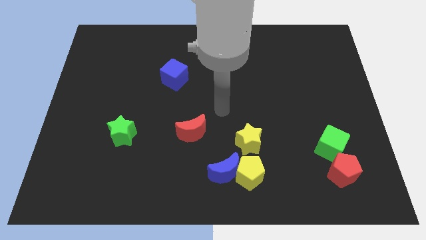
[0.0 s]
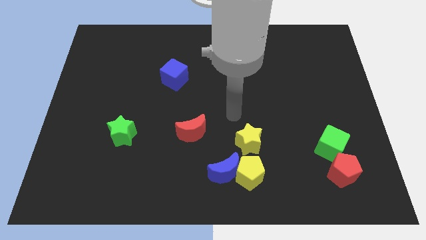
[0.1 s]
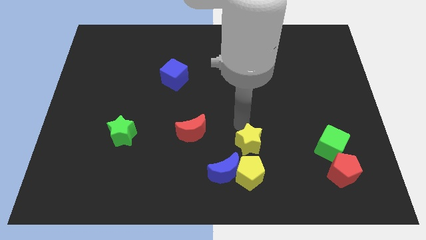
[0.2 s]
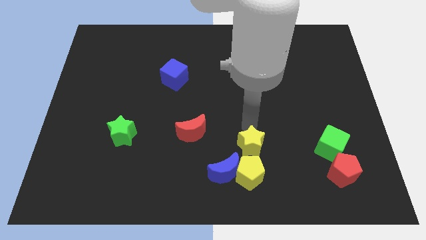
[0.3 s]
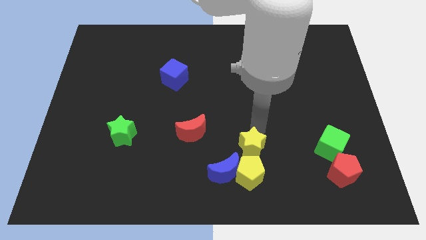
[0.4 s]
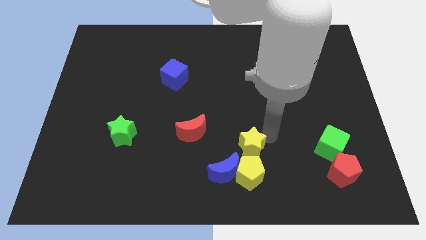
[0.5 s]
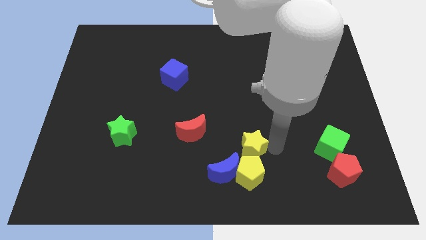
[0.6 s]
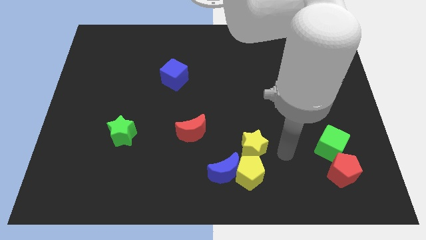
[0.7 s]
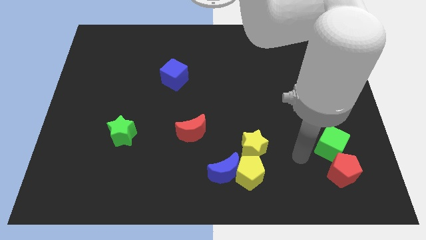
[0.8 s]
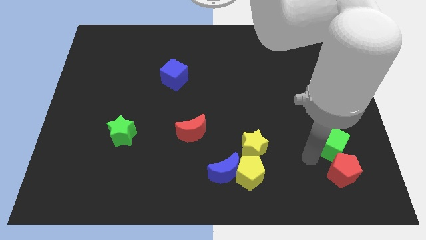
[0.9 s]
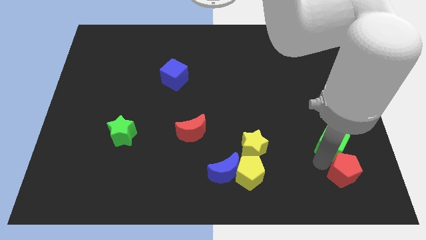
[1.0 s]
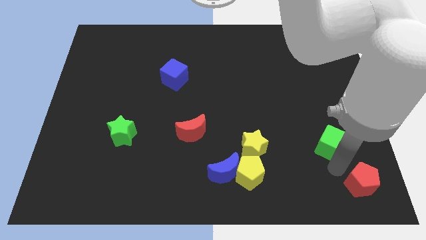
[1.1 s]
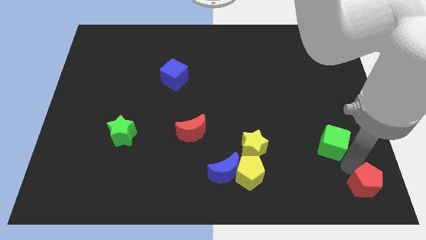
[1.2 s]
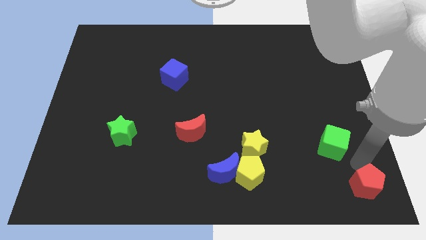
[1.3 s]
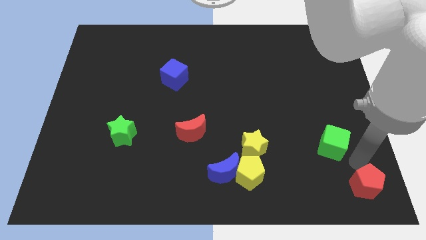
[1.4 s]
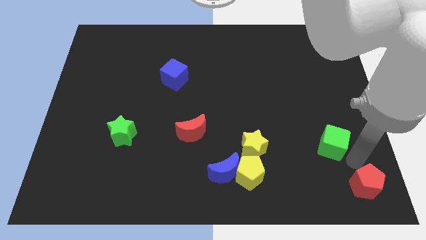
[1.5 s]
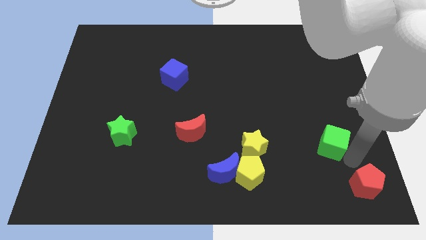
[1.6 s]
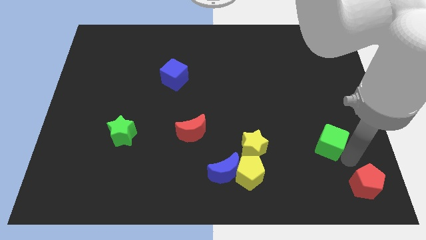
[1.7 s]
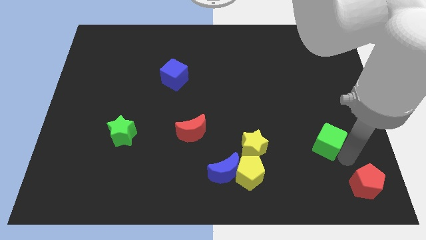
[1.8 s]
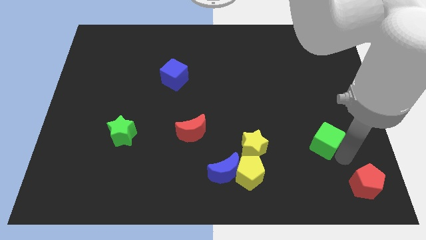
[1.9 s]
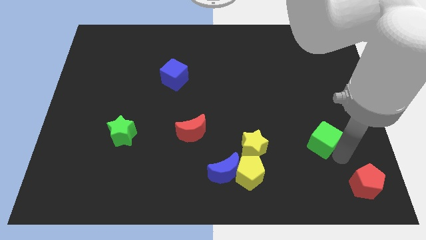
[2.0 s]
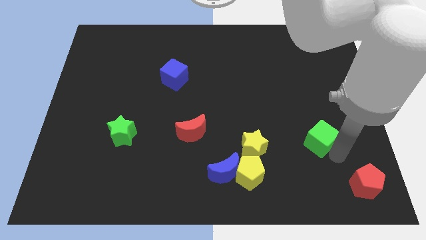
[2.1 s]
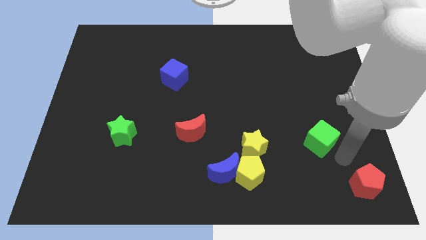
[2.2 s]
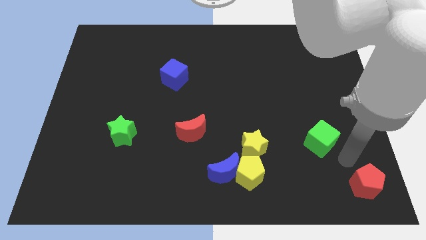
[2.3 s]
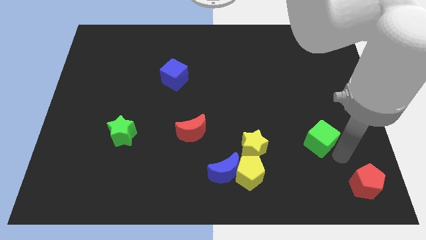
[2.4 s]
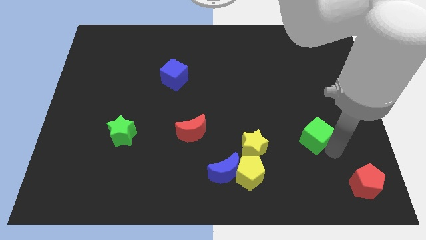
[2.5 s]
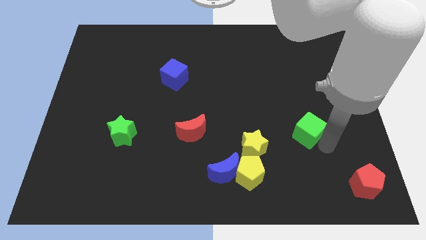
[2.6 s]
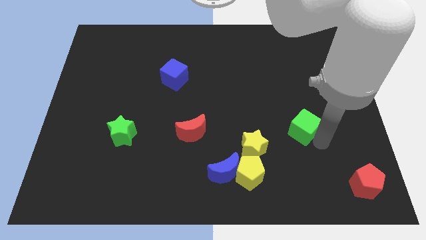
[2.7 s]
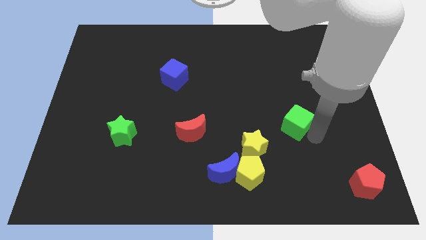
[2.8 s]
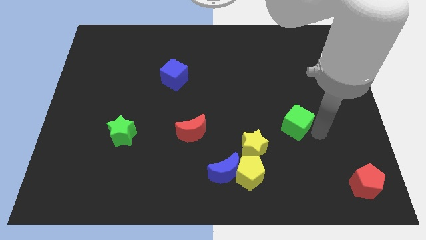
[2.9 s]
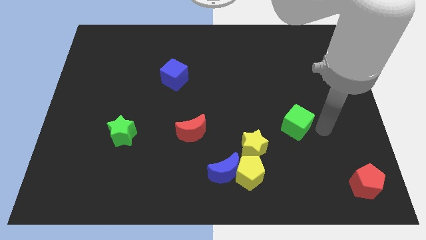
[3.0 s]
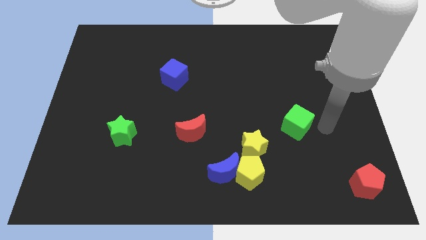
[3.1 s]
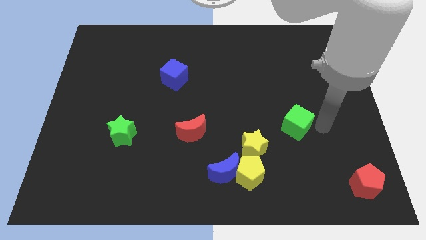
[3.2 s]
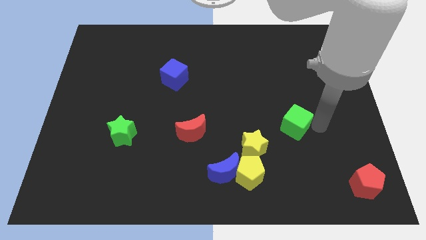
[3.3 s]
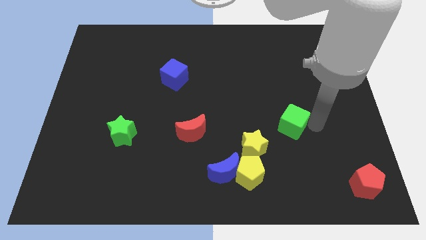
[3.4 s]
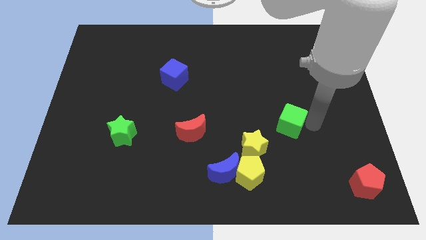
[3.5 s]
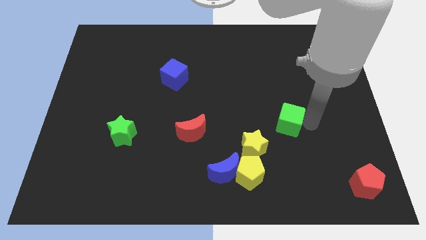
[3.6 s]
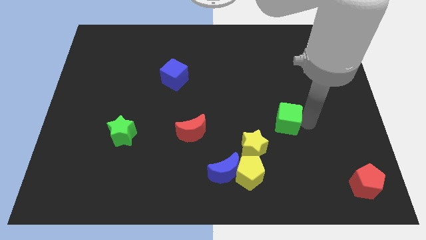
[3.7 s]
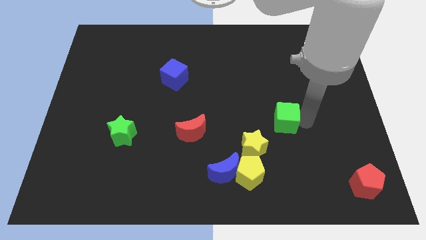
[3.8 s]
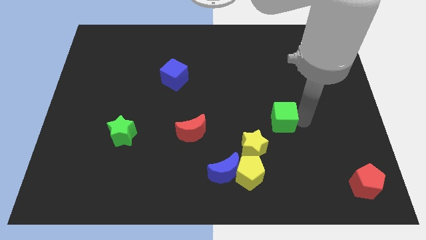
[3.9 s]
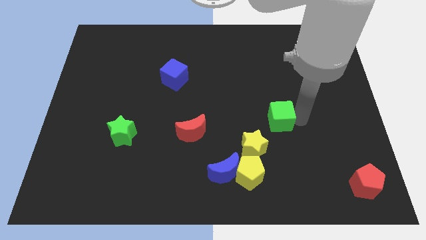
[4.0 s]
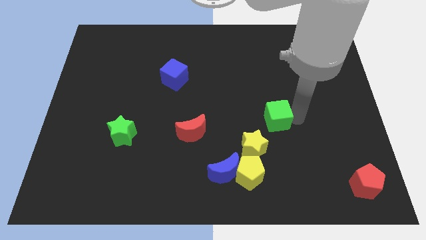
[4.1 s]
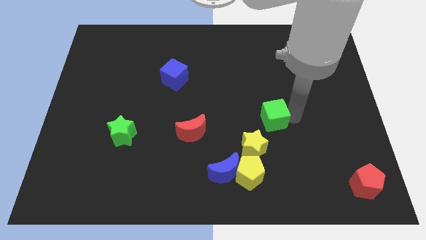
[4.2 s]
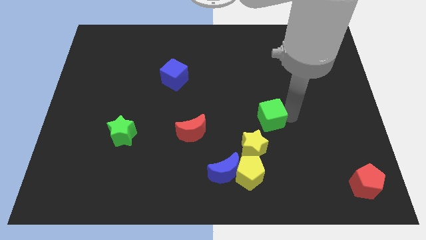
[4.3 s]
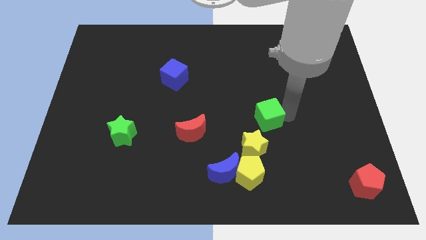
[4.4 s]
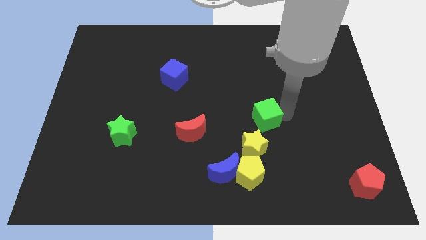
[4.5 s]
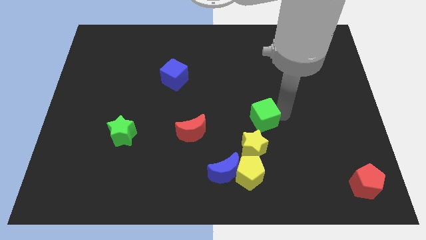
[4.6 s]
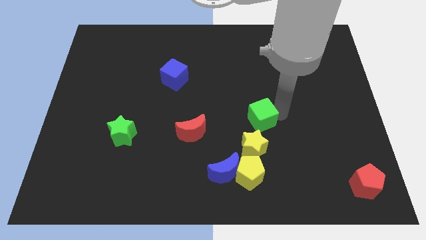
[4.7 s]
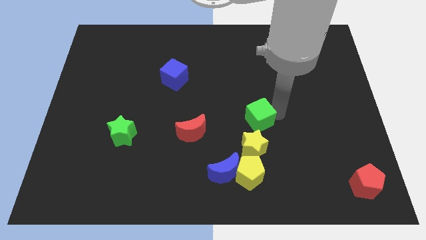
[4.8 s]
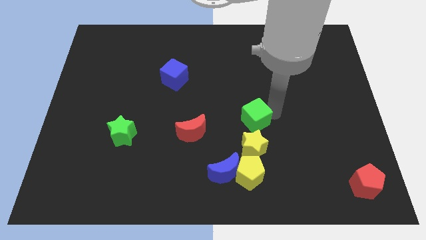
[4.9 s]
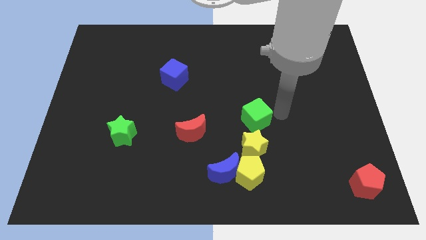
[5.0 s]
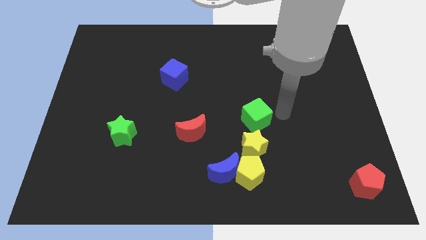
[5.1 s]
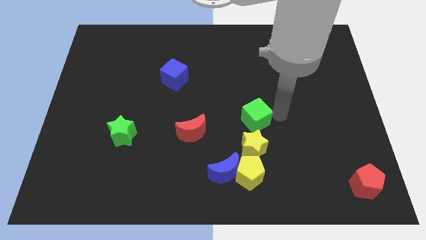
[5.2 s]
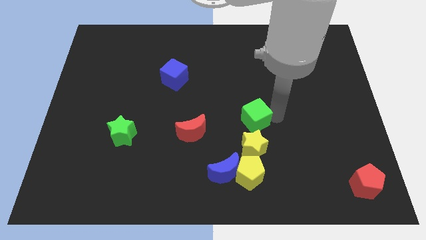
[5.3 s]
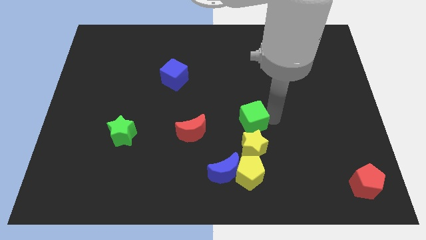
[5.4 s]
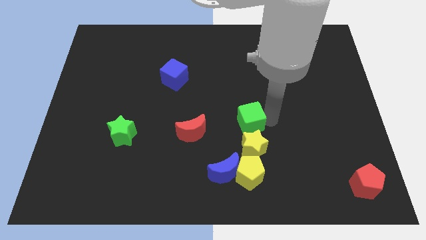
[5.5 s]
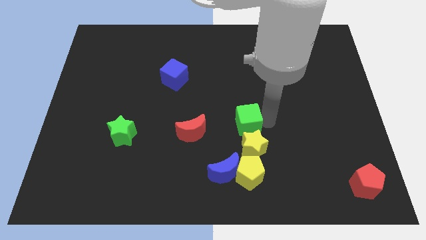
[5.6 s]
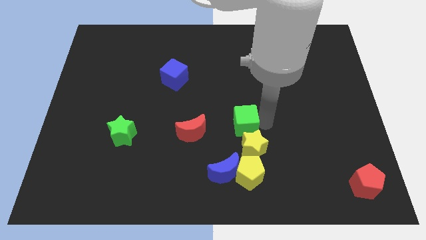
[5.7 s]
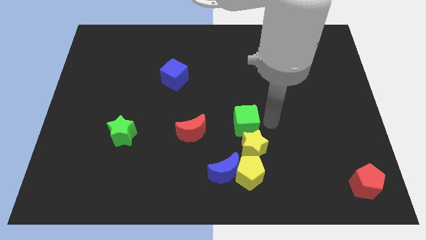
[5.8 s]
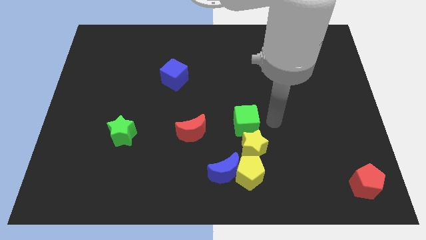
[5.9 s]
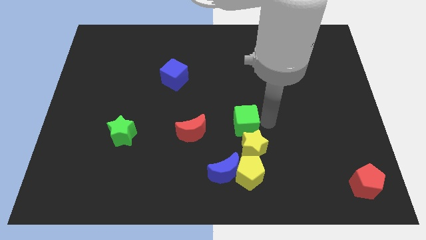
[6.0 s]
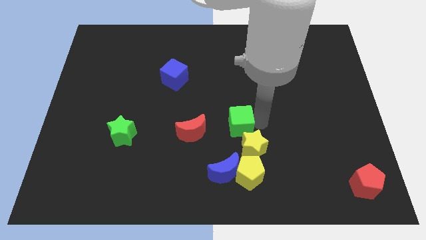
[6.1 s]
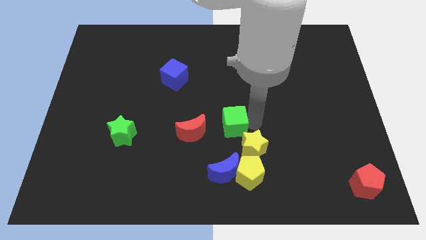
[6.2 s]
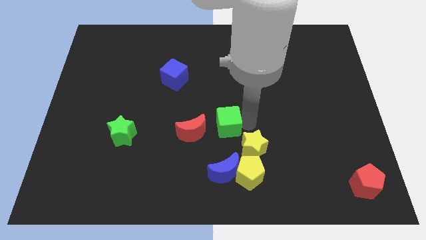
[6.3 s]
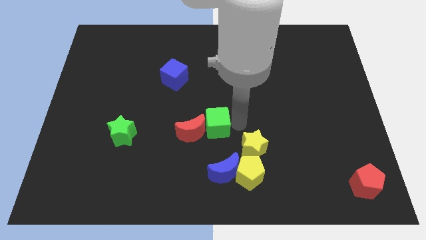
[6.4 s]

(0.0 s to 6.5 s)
put the green cube to the red moon

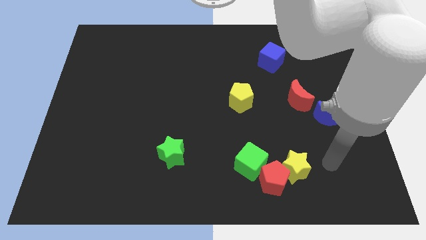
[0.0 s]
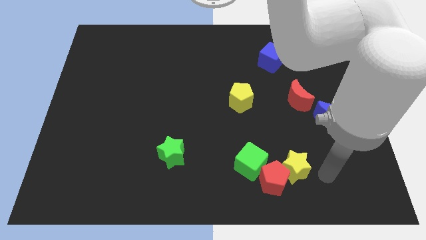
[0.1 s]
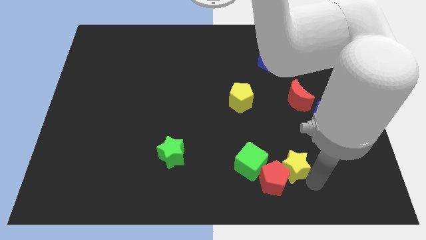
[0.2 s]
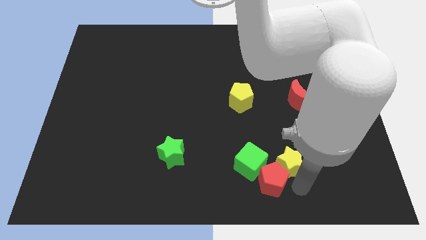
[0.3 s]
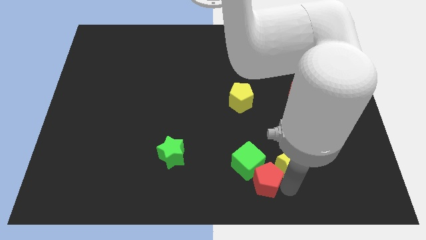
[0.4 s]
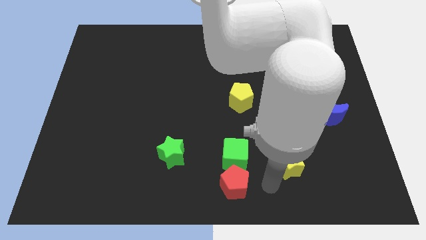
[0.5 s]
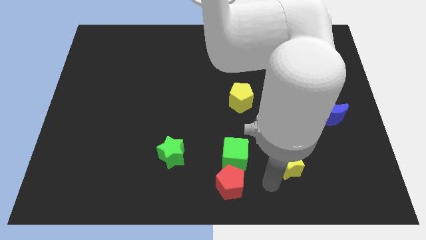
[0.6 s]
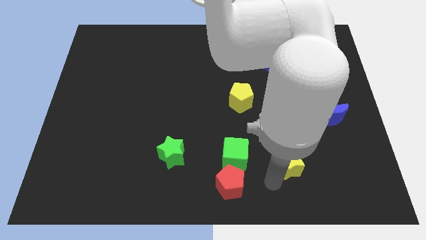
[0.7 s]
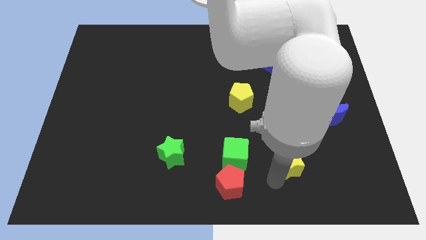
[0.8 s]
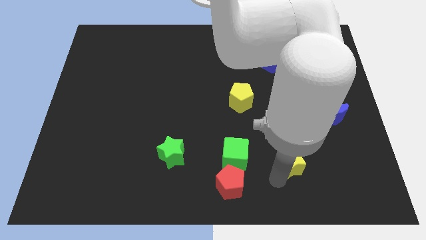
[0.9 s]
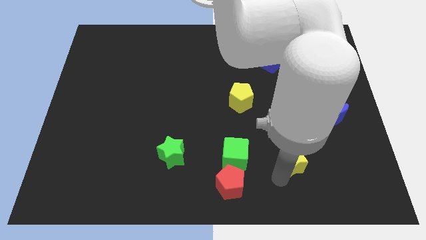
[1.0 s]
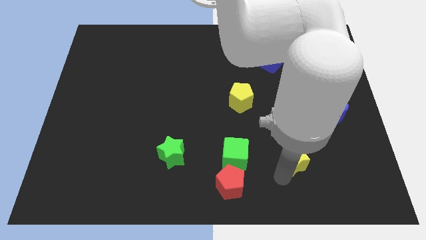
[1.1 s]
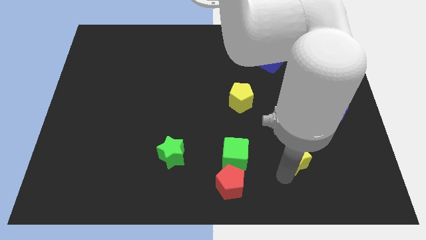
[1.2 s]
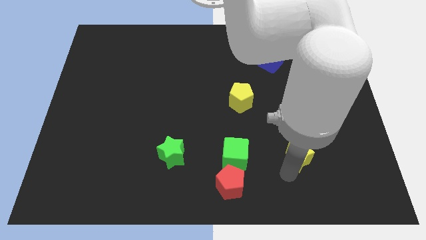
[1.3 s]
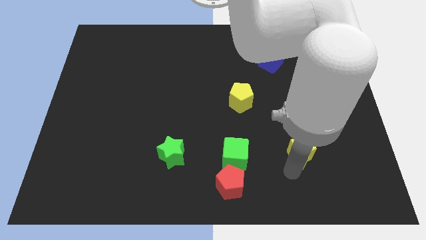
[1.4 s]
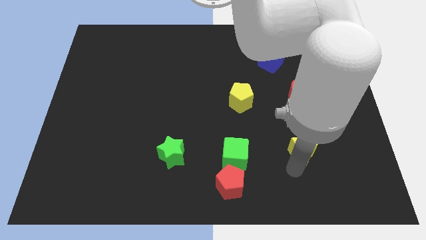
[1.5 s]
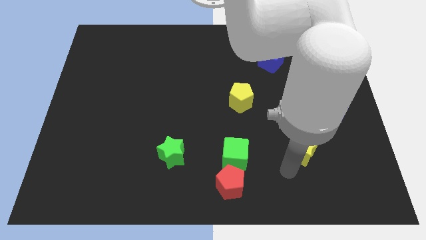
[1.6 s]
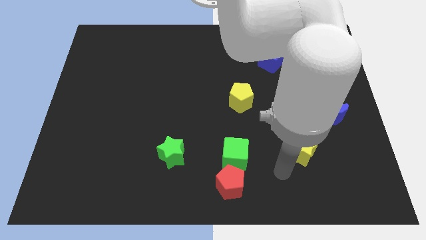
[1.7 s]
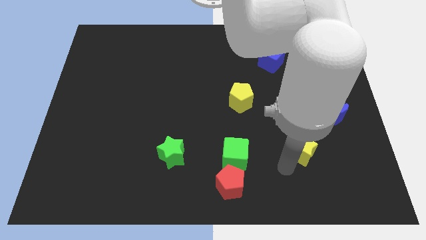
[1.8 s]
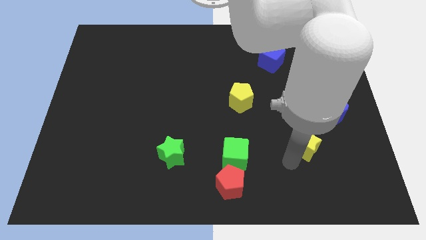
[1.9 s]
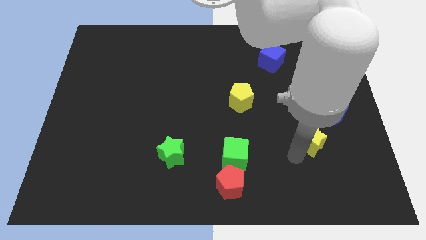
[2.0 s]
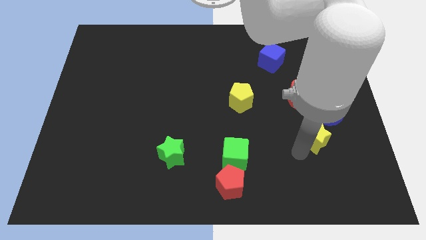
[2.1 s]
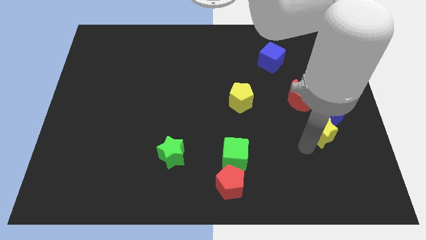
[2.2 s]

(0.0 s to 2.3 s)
move the yellow star to the blue moon
